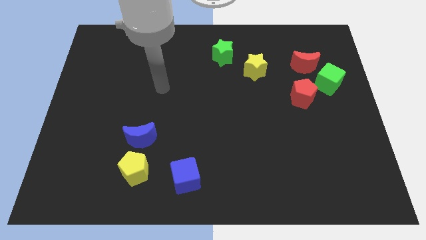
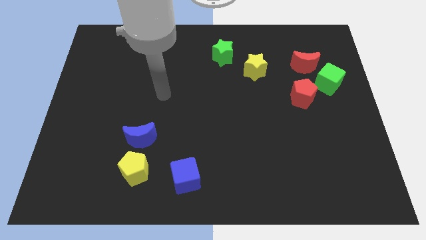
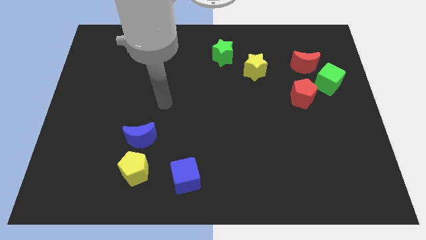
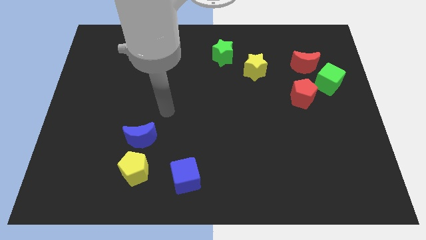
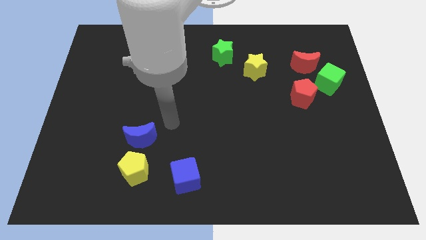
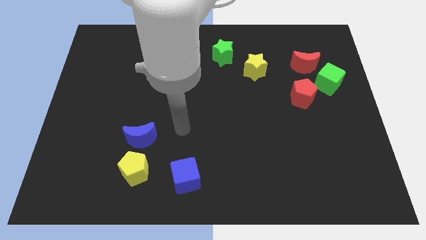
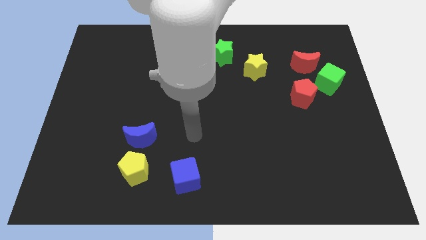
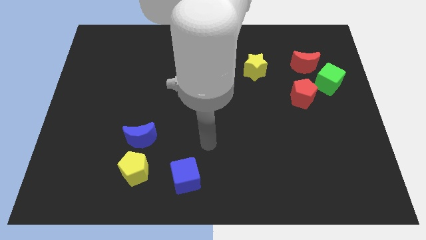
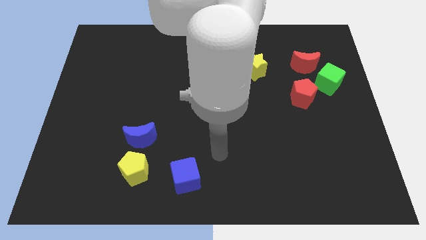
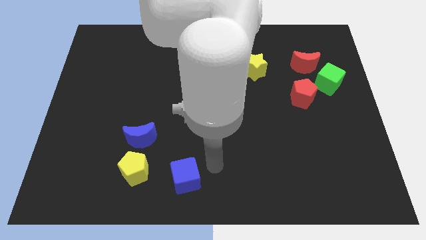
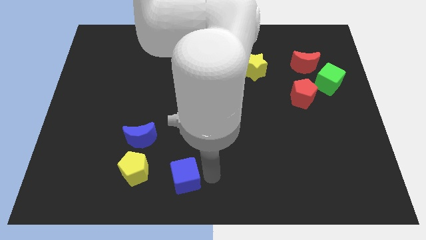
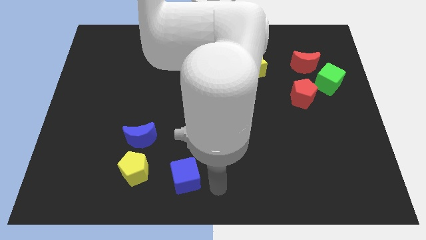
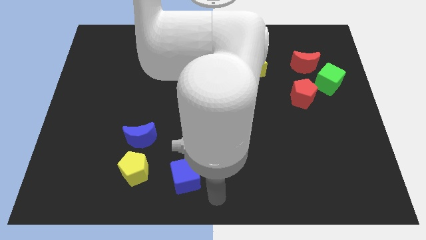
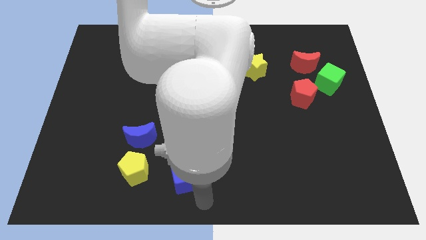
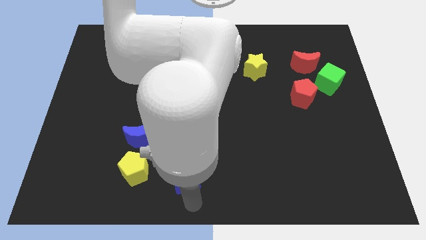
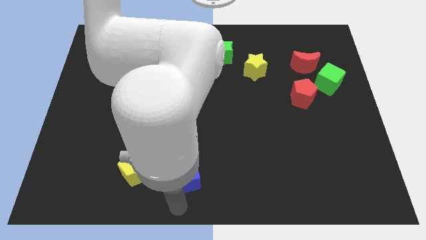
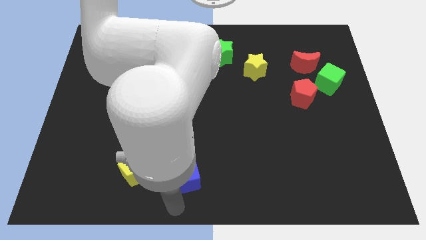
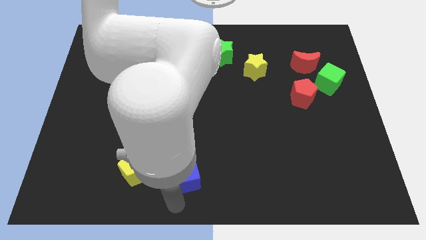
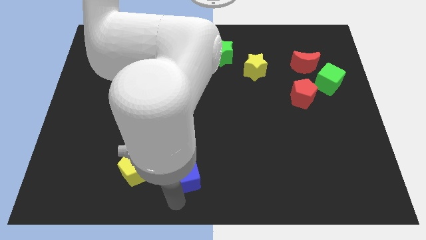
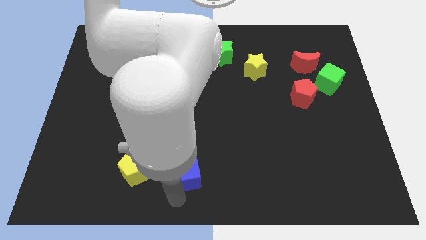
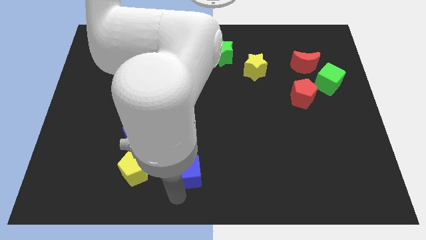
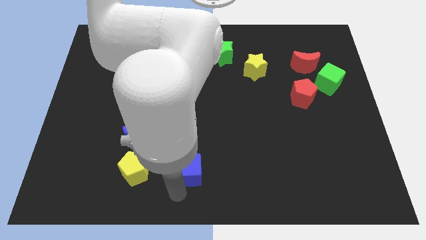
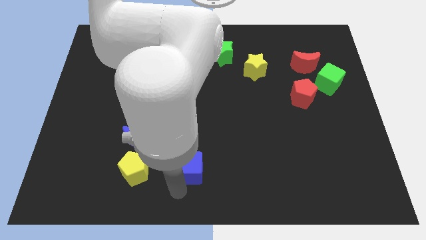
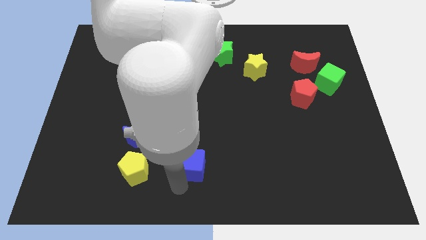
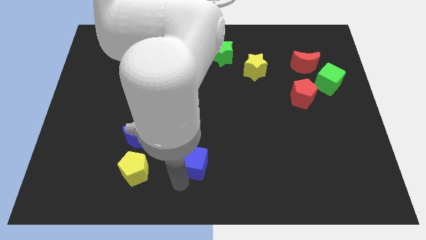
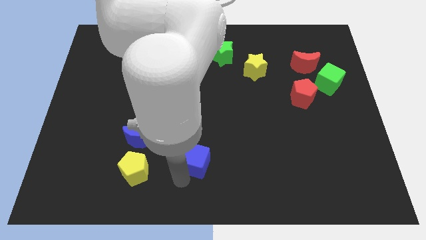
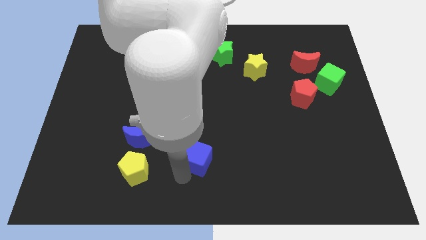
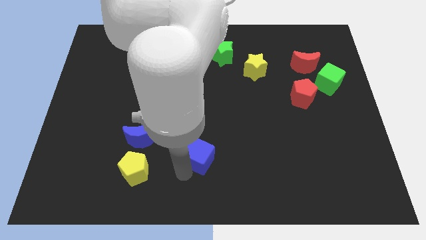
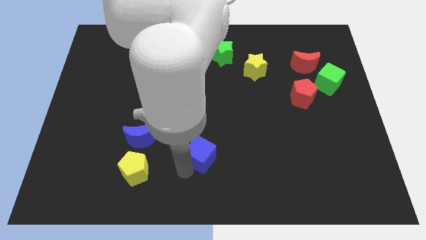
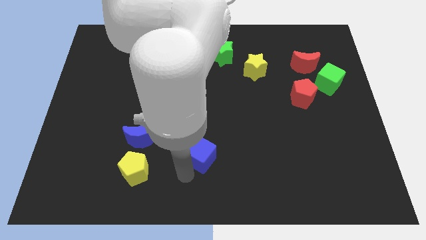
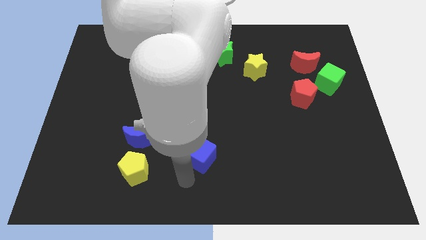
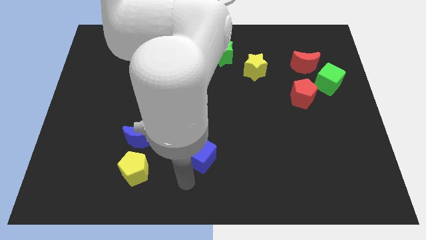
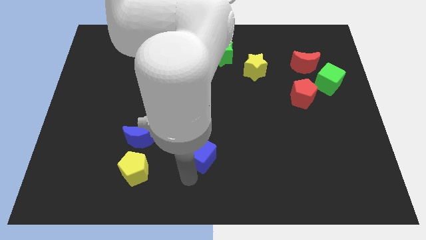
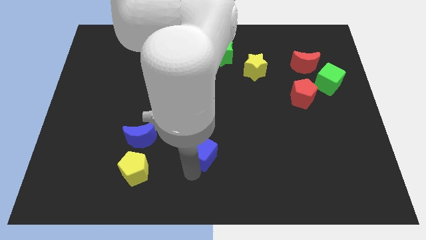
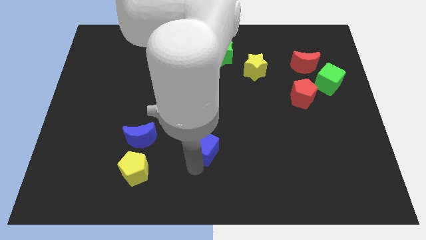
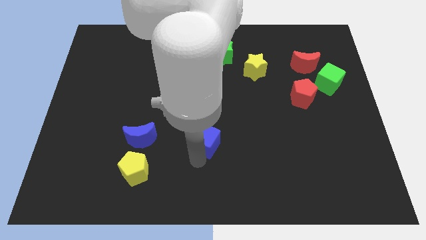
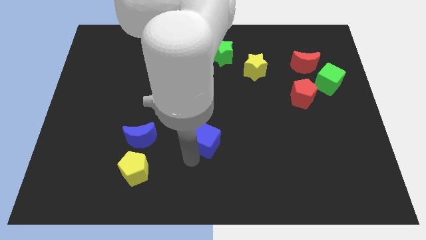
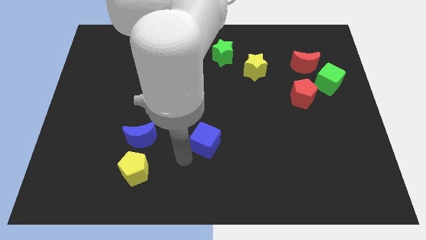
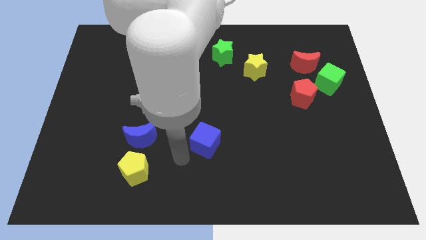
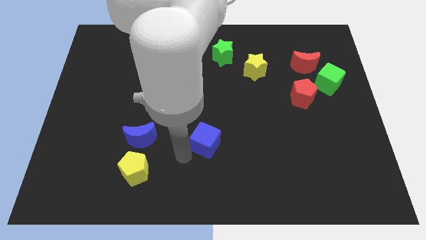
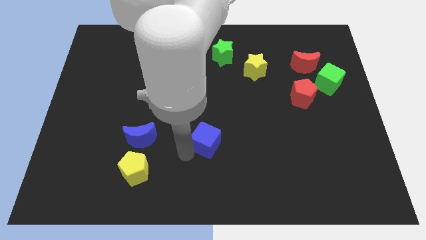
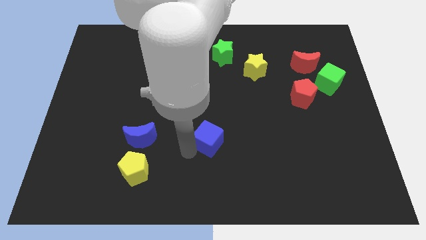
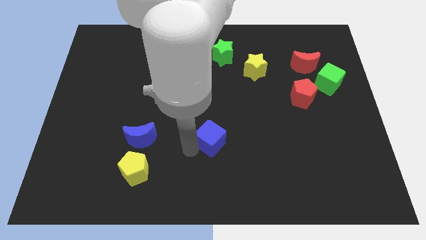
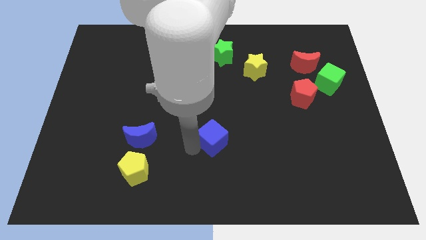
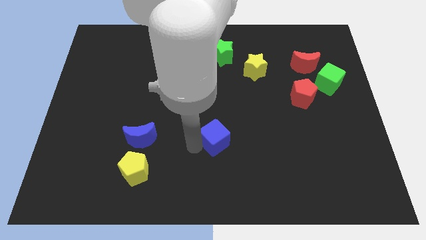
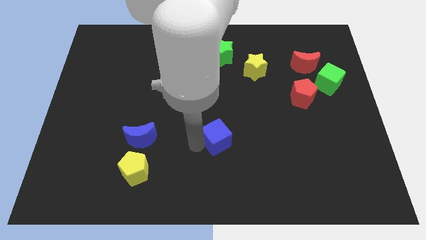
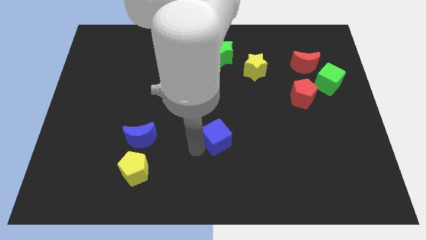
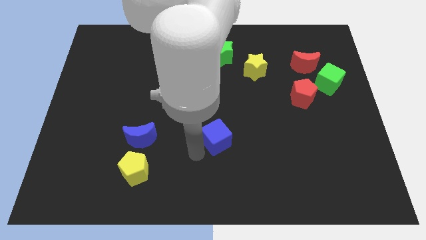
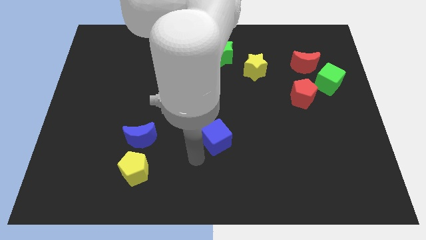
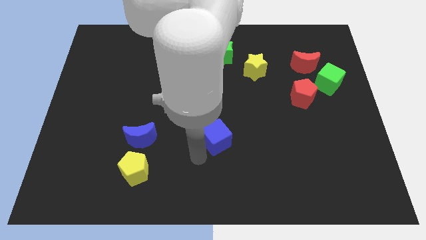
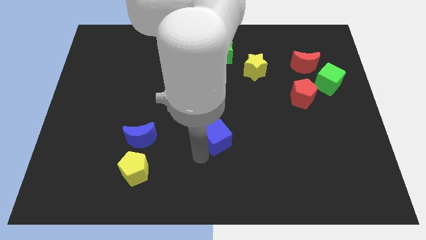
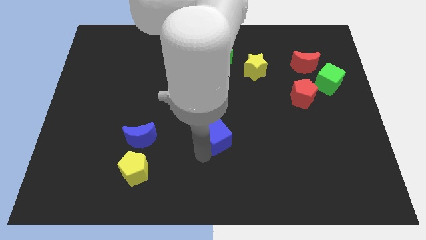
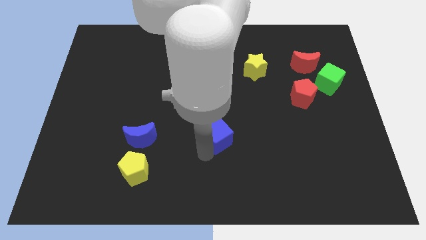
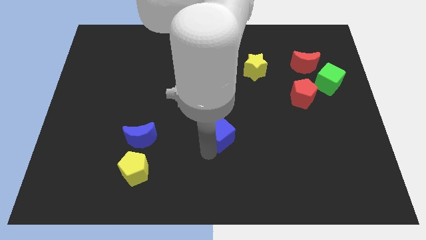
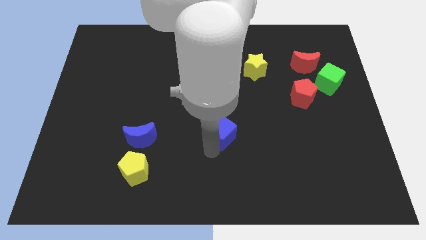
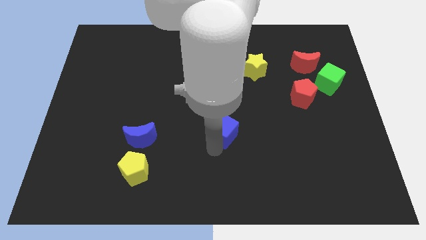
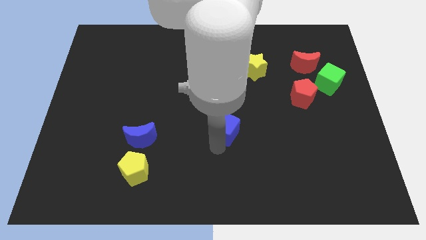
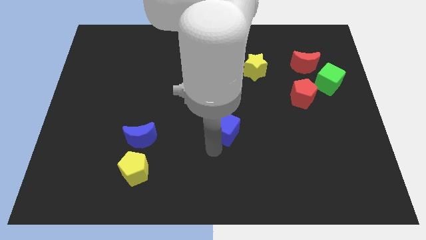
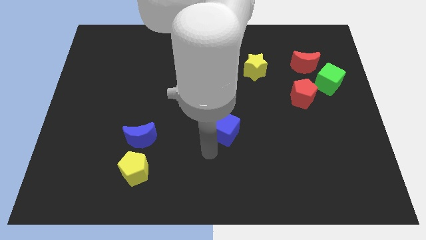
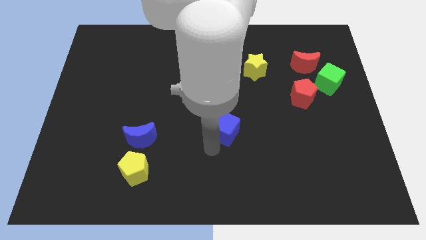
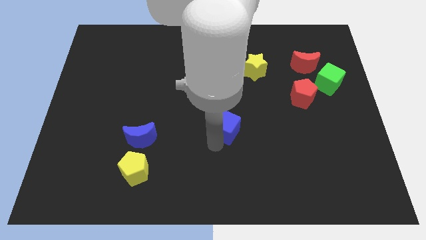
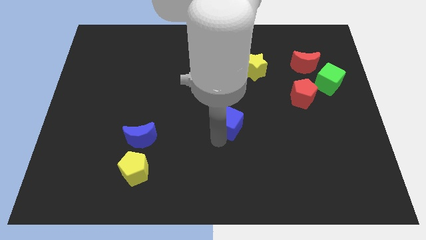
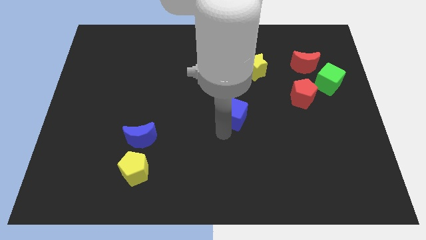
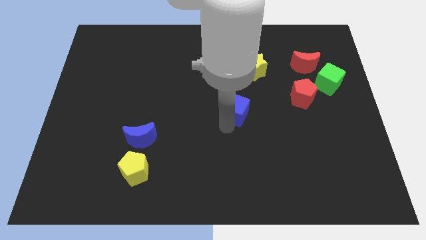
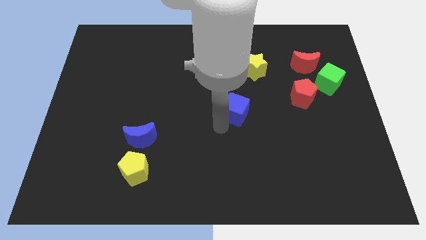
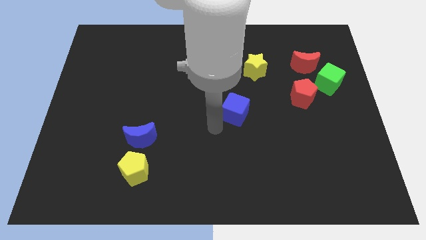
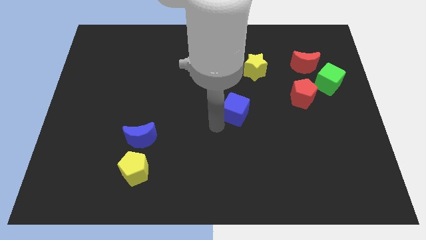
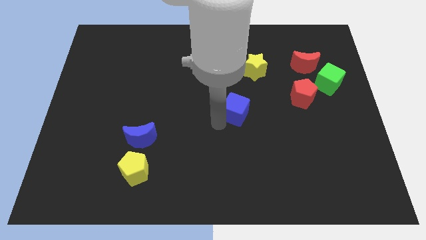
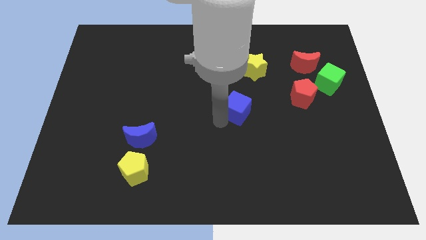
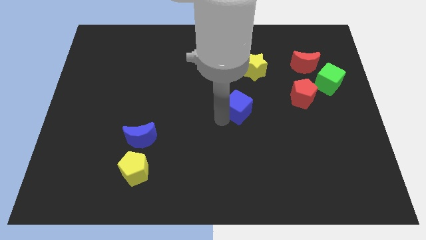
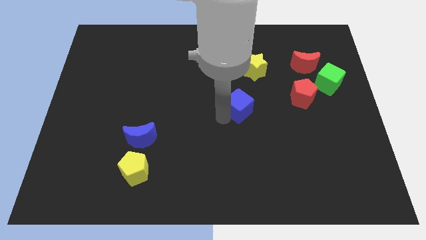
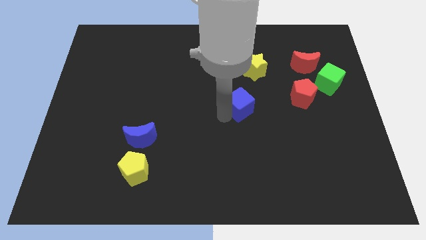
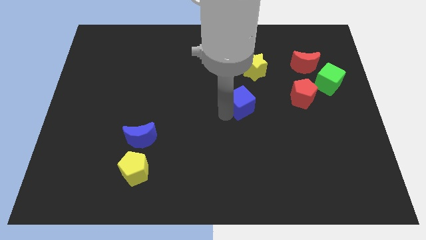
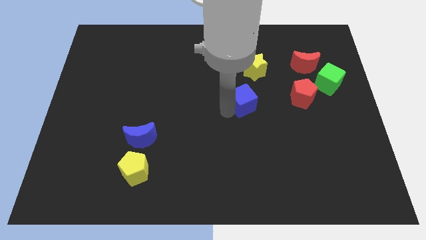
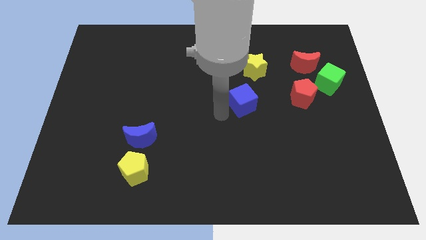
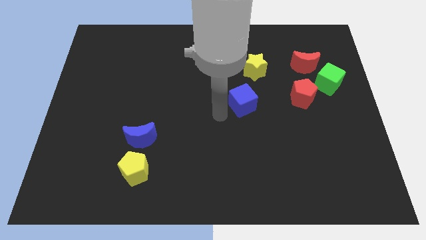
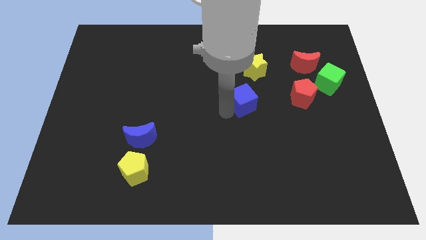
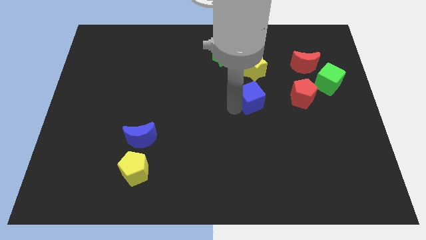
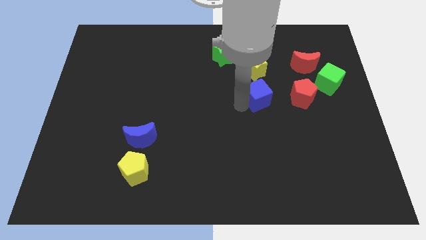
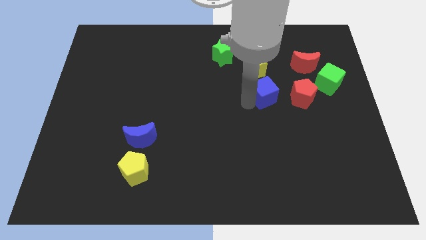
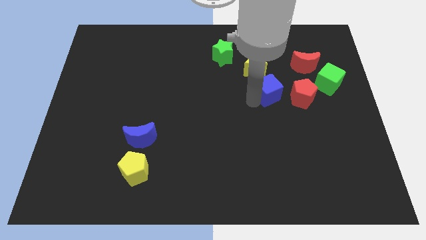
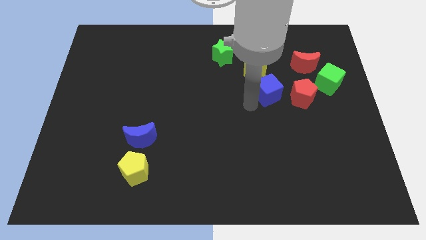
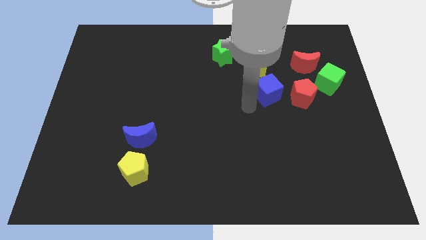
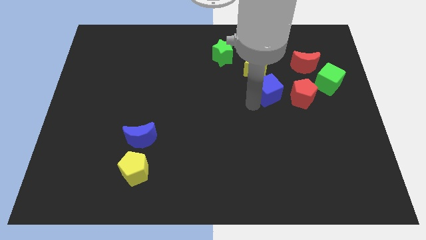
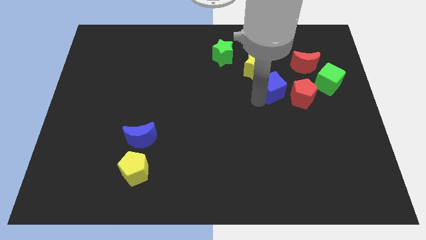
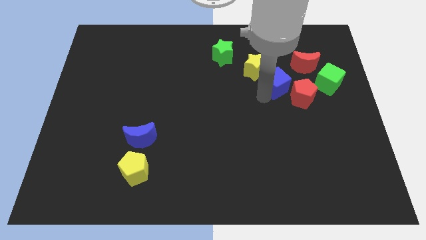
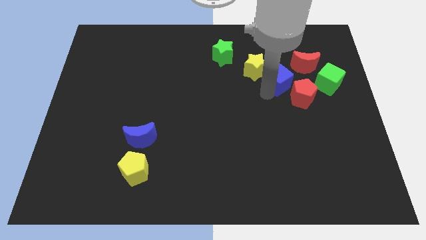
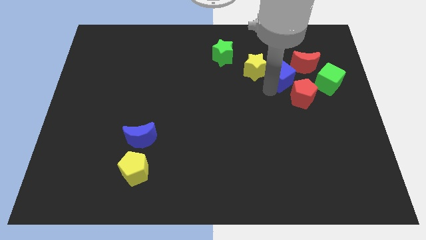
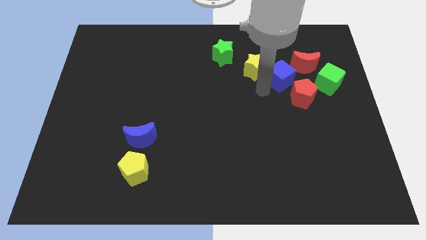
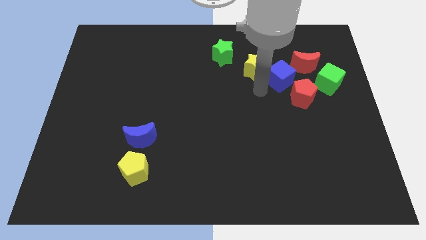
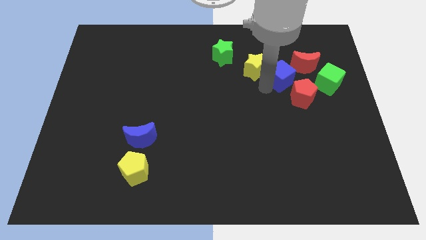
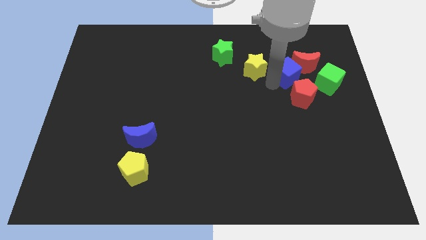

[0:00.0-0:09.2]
push the blue cube towards the red moon
